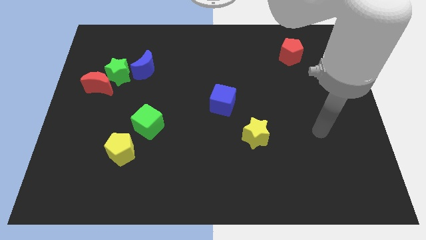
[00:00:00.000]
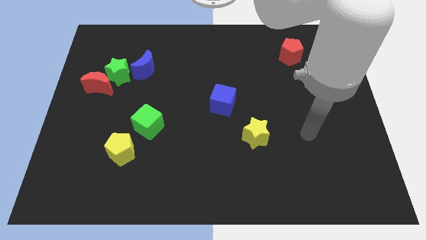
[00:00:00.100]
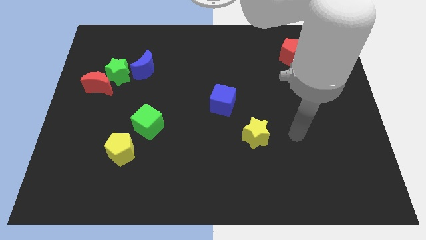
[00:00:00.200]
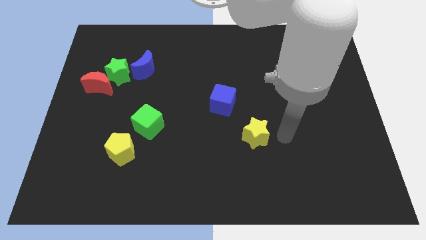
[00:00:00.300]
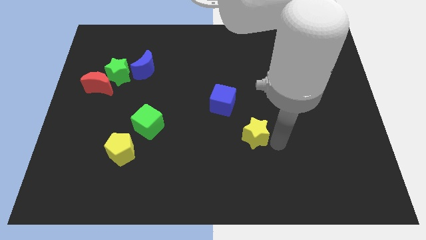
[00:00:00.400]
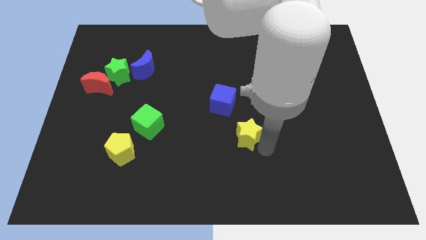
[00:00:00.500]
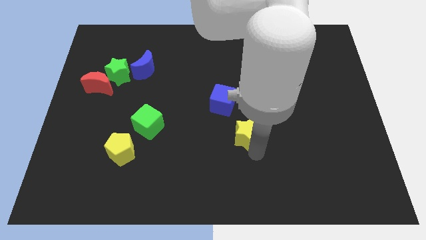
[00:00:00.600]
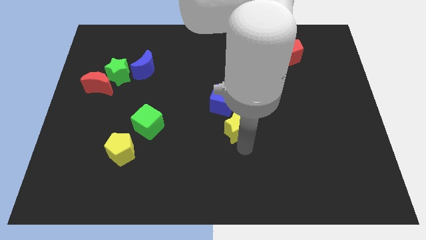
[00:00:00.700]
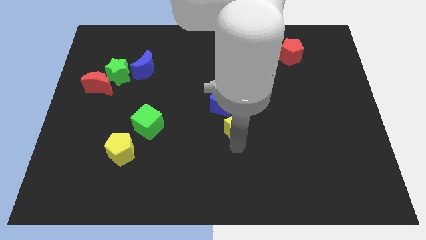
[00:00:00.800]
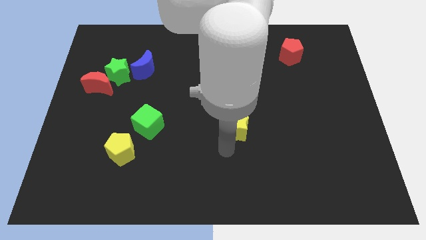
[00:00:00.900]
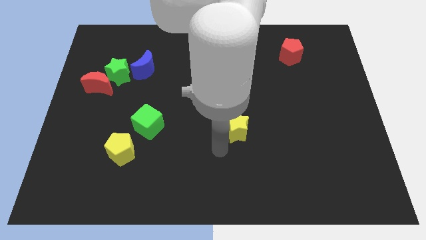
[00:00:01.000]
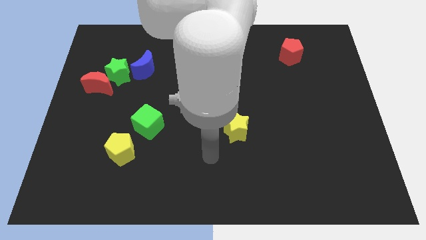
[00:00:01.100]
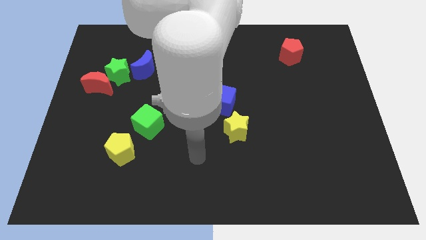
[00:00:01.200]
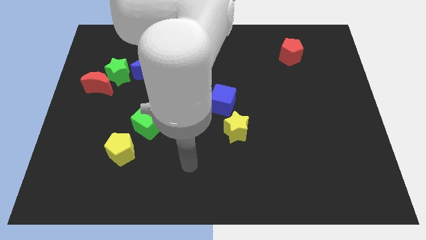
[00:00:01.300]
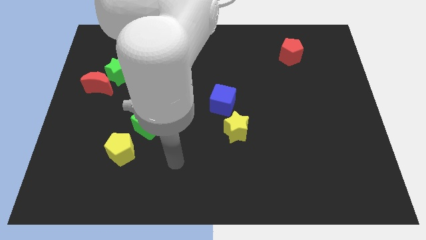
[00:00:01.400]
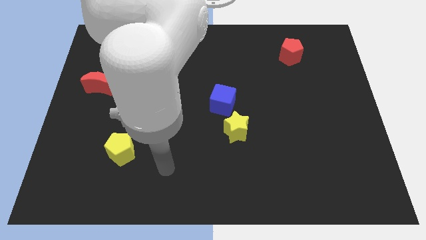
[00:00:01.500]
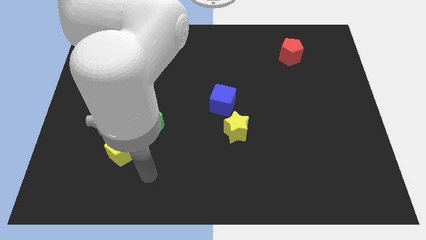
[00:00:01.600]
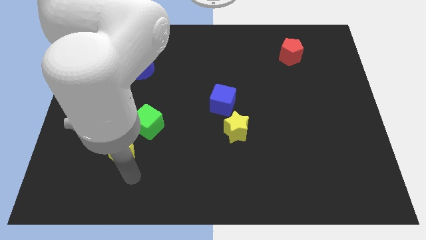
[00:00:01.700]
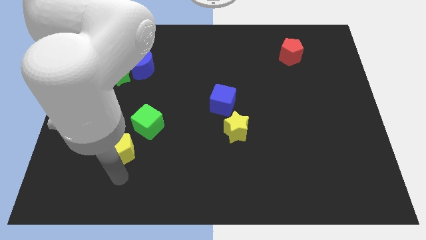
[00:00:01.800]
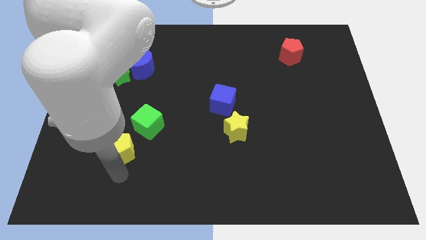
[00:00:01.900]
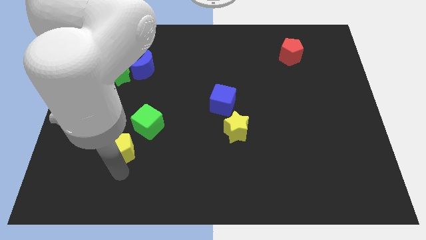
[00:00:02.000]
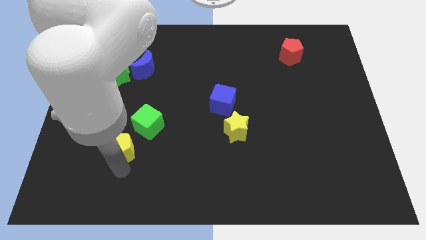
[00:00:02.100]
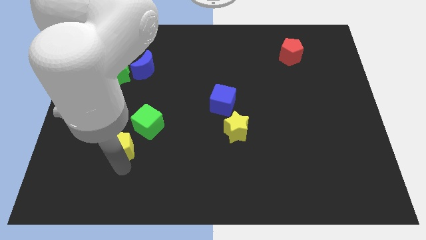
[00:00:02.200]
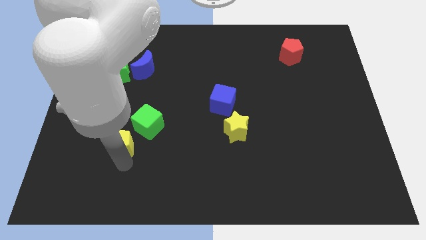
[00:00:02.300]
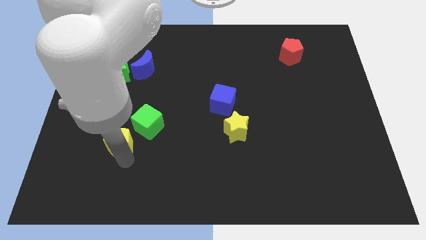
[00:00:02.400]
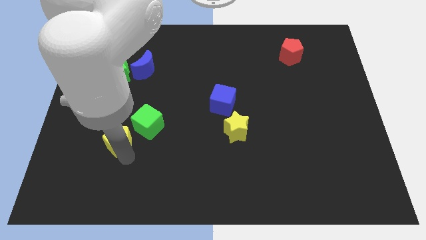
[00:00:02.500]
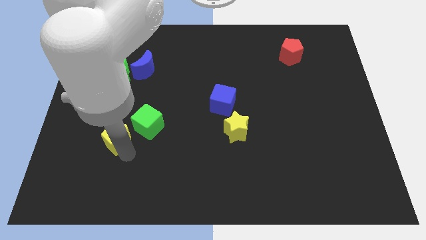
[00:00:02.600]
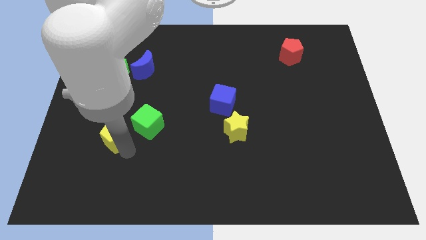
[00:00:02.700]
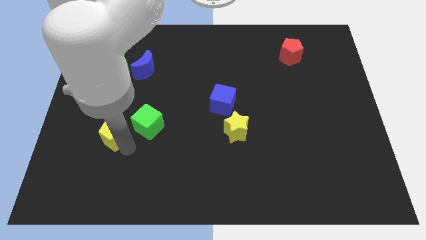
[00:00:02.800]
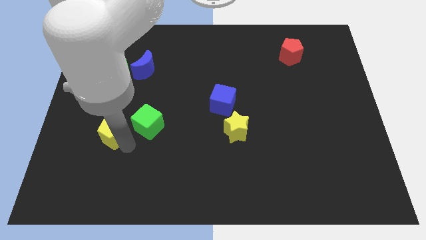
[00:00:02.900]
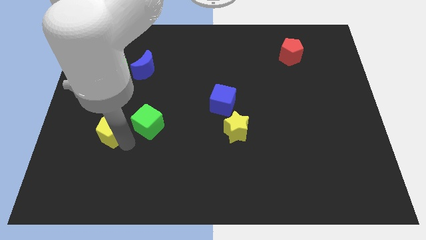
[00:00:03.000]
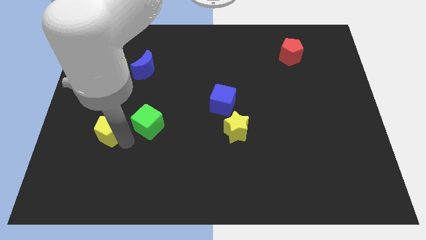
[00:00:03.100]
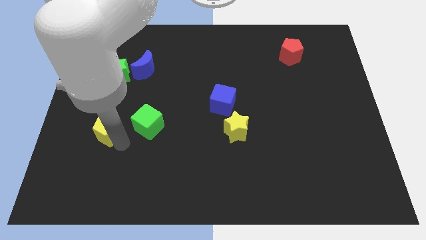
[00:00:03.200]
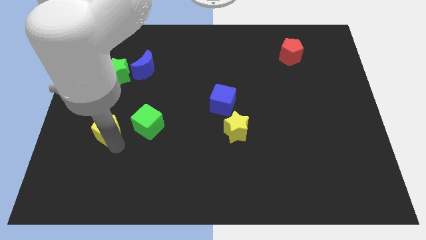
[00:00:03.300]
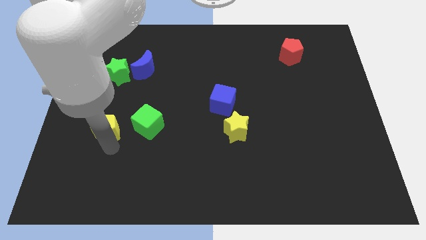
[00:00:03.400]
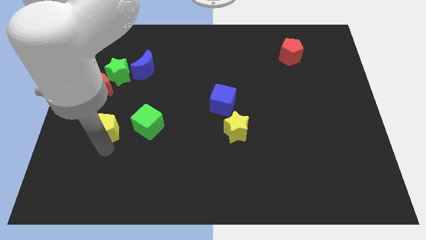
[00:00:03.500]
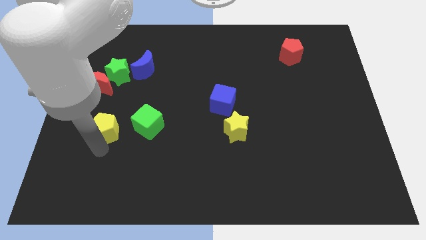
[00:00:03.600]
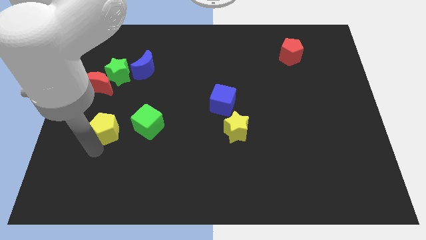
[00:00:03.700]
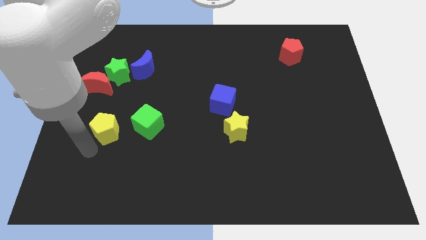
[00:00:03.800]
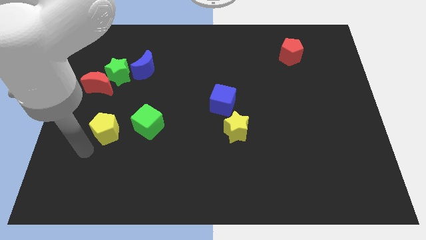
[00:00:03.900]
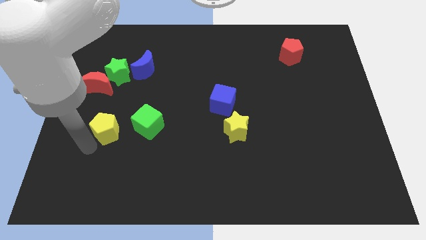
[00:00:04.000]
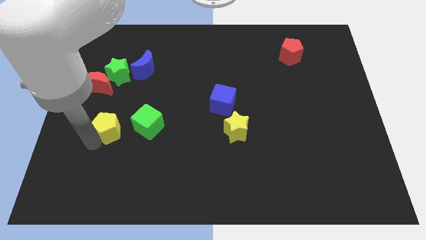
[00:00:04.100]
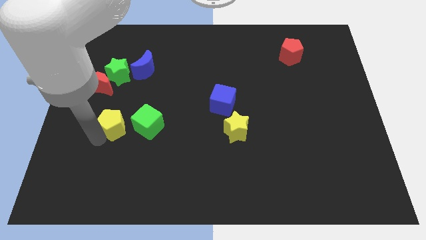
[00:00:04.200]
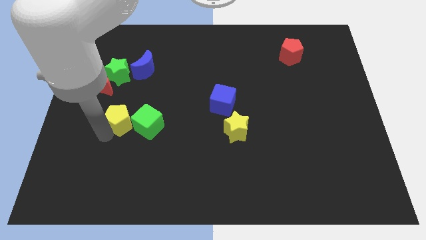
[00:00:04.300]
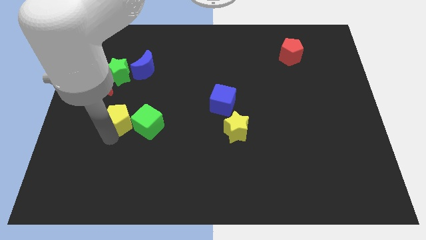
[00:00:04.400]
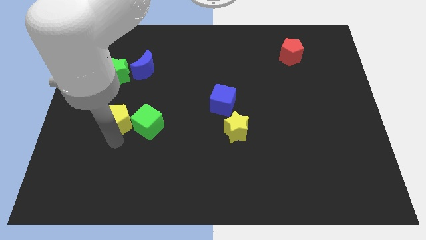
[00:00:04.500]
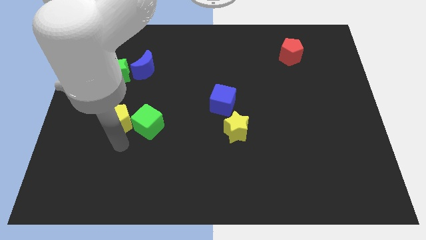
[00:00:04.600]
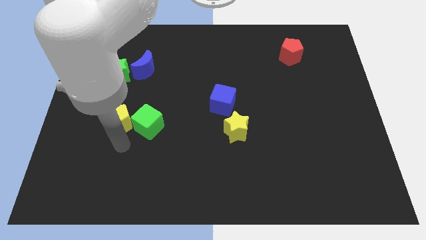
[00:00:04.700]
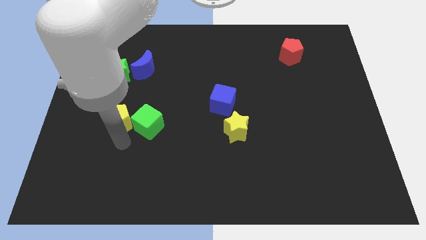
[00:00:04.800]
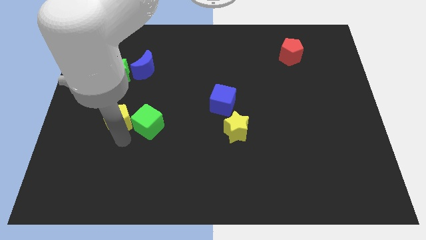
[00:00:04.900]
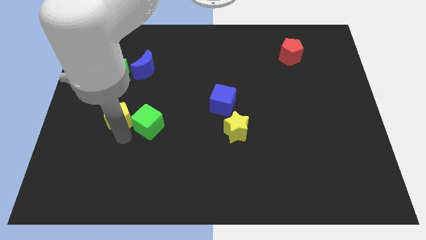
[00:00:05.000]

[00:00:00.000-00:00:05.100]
put the yellow pentagon to the bottom right side of the red moon

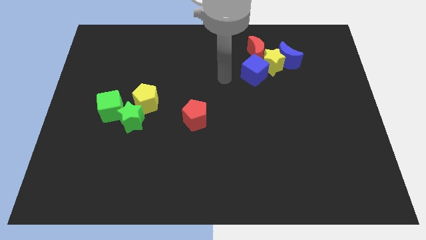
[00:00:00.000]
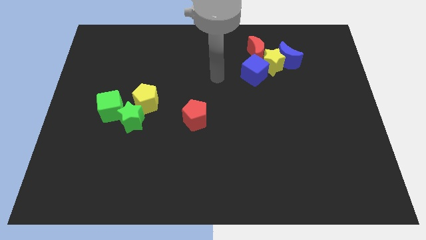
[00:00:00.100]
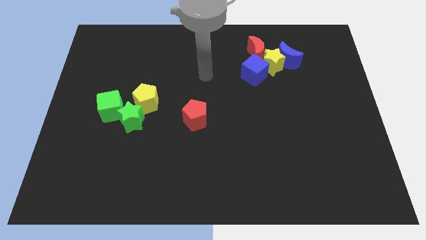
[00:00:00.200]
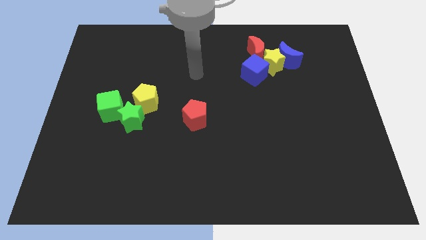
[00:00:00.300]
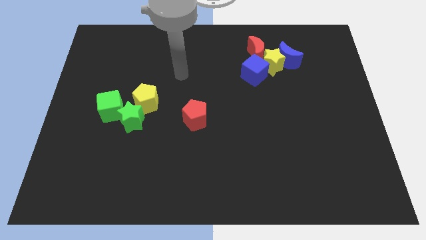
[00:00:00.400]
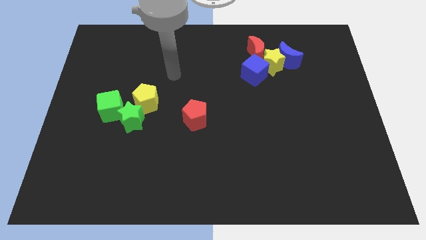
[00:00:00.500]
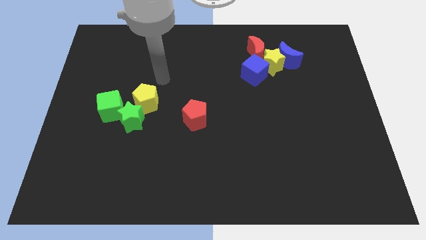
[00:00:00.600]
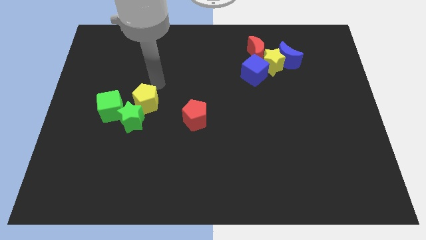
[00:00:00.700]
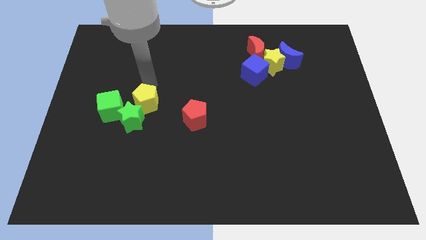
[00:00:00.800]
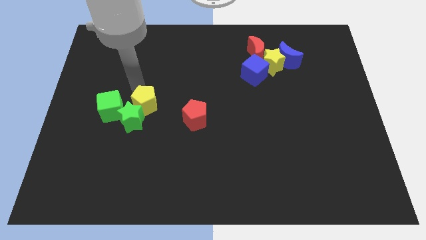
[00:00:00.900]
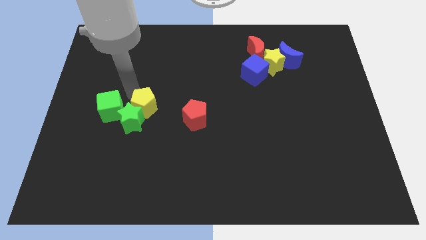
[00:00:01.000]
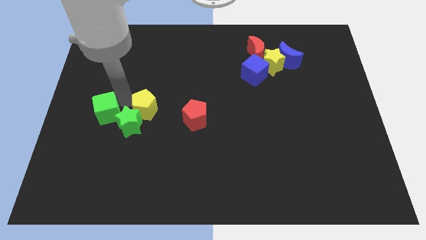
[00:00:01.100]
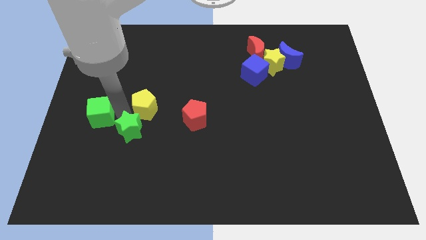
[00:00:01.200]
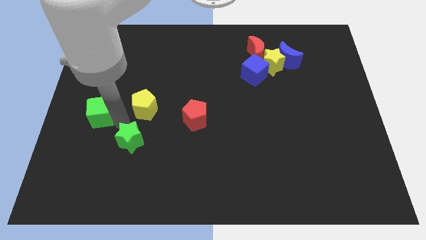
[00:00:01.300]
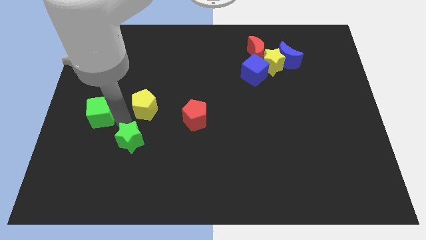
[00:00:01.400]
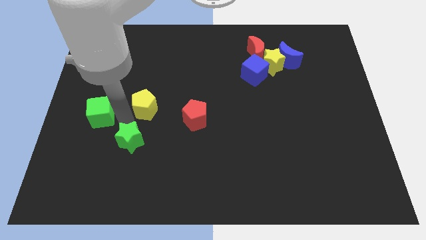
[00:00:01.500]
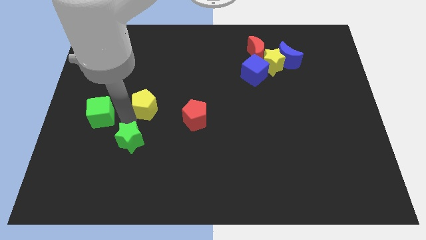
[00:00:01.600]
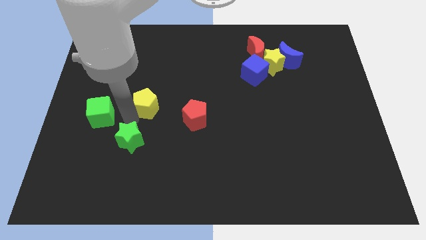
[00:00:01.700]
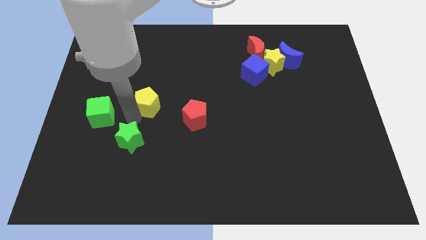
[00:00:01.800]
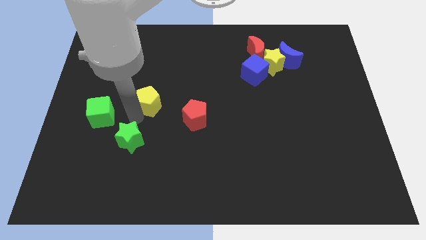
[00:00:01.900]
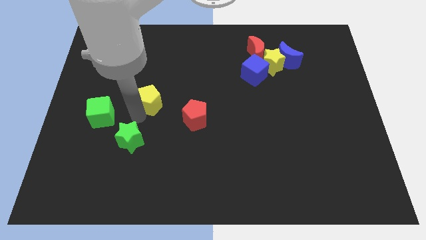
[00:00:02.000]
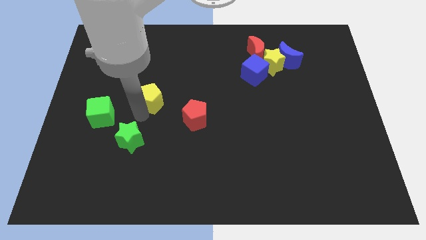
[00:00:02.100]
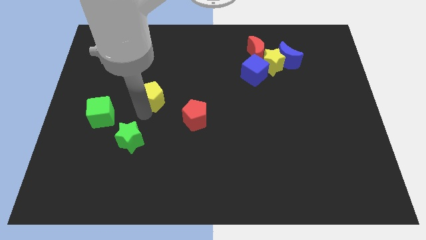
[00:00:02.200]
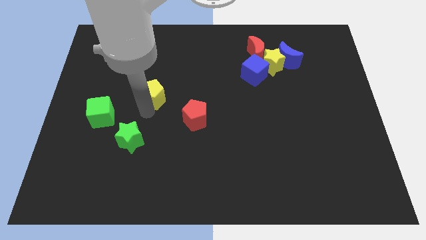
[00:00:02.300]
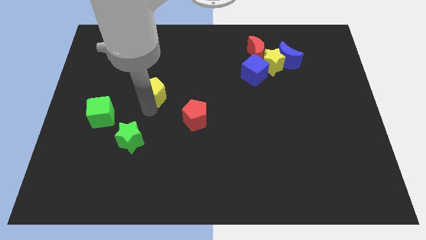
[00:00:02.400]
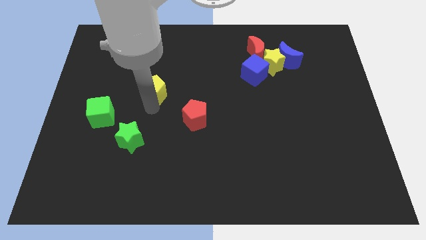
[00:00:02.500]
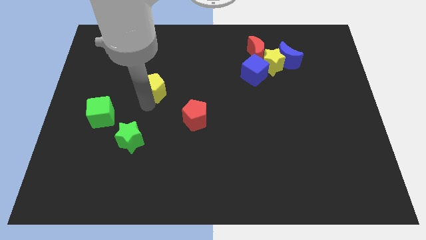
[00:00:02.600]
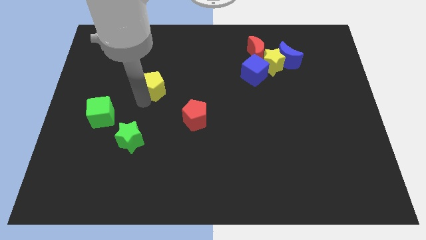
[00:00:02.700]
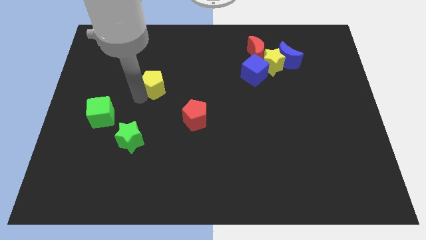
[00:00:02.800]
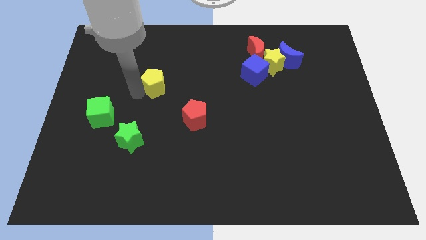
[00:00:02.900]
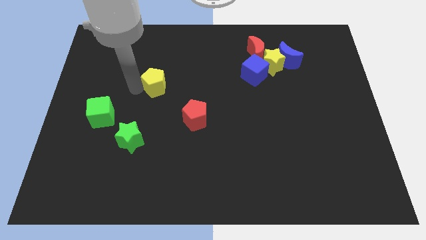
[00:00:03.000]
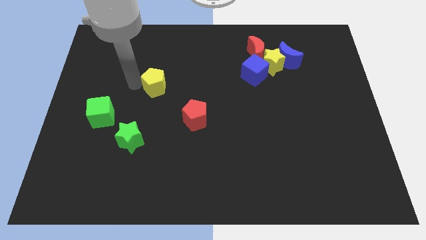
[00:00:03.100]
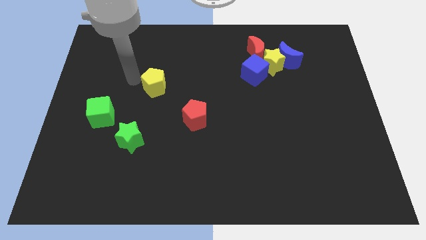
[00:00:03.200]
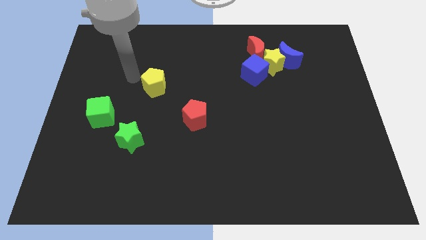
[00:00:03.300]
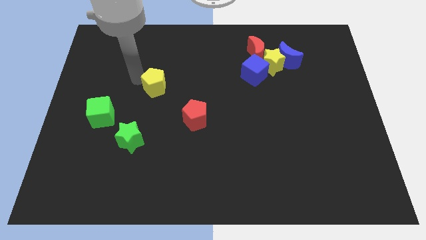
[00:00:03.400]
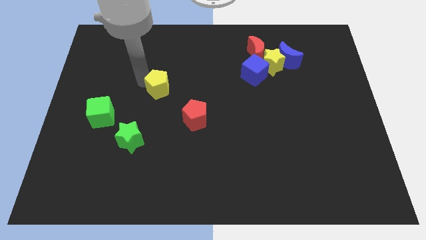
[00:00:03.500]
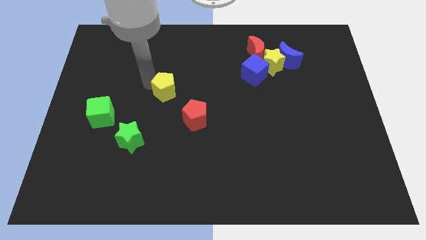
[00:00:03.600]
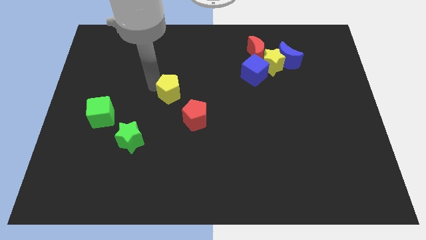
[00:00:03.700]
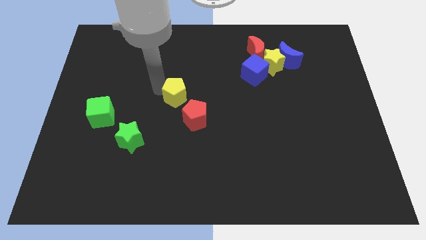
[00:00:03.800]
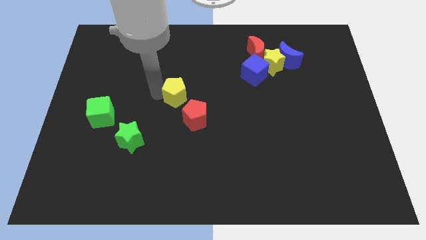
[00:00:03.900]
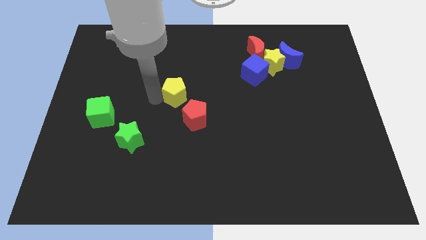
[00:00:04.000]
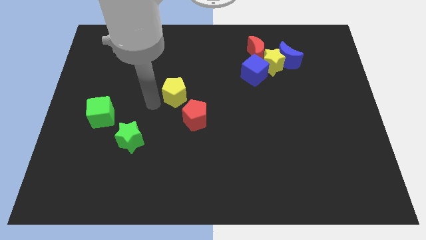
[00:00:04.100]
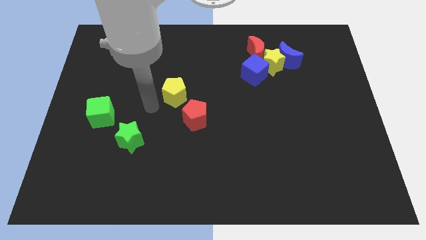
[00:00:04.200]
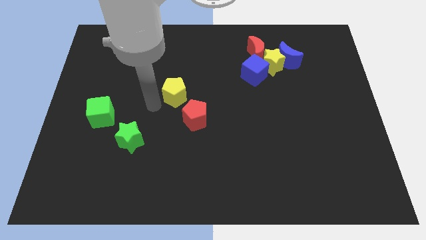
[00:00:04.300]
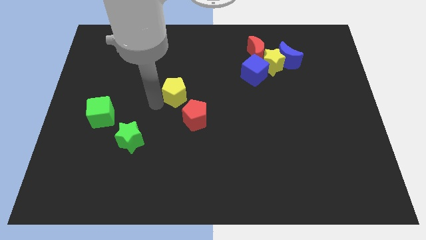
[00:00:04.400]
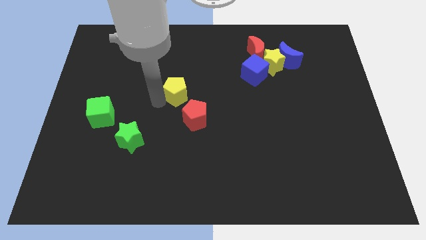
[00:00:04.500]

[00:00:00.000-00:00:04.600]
put the yellow pentagon to the top of the red pentagon
